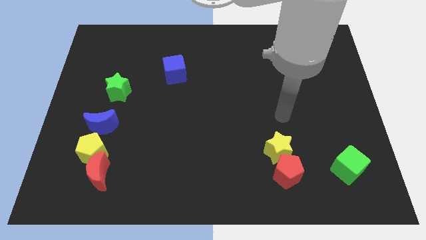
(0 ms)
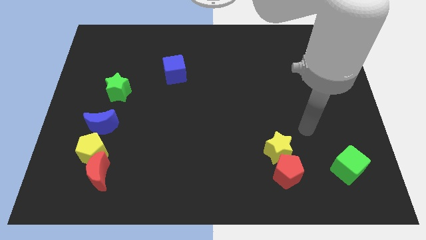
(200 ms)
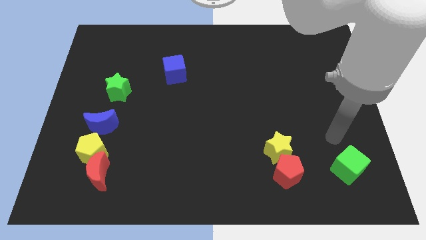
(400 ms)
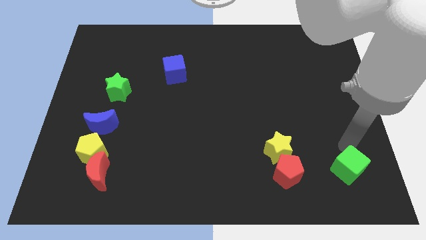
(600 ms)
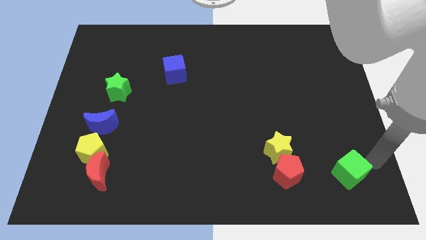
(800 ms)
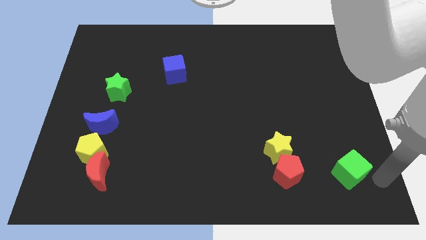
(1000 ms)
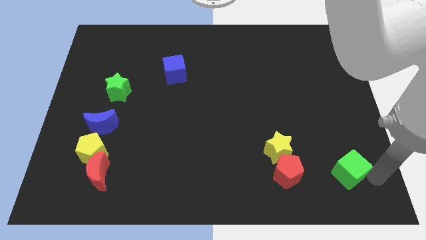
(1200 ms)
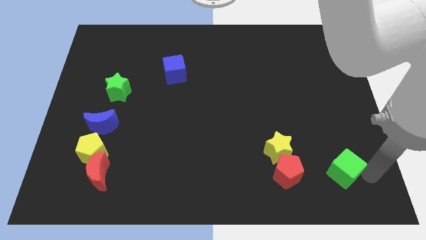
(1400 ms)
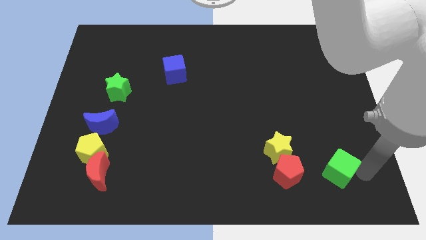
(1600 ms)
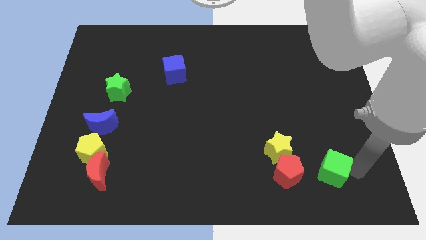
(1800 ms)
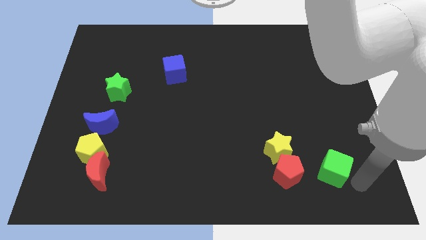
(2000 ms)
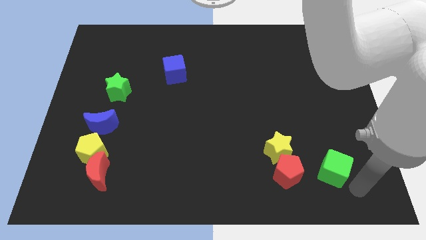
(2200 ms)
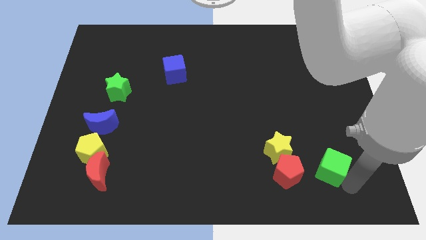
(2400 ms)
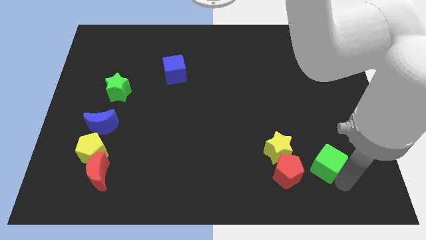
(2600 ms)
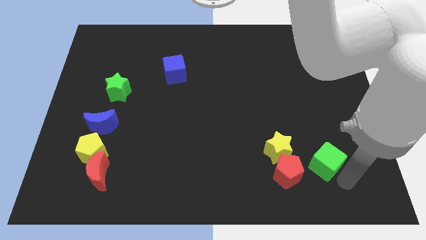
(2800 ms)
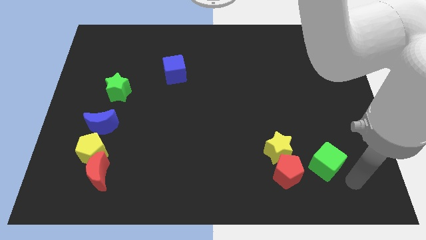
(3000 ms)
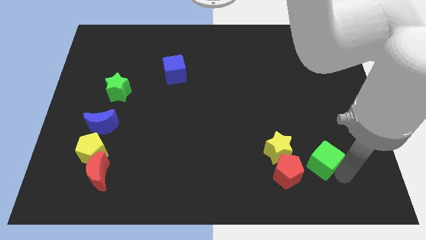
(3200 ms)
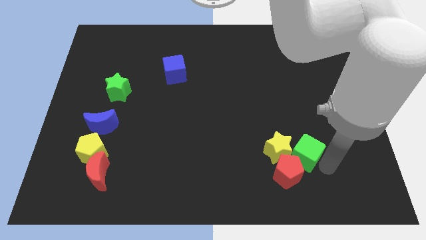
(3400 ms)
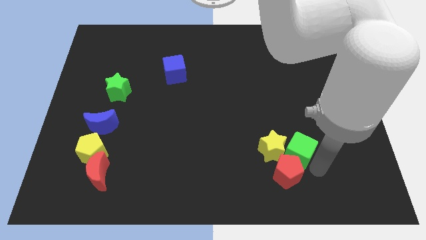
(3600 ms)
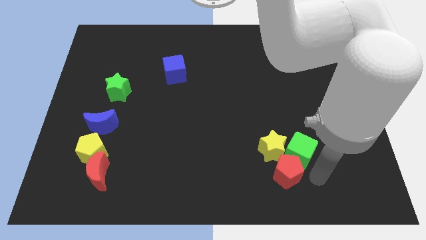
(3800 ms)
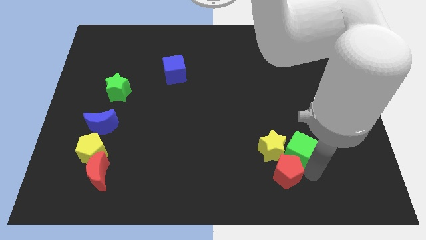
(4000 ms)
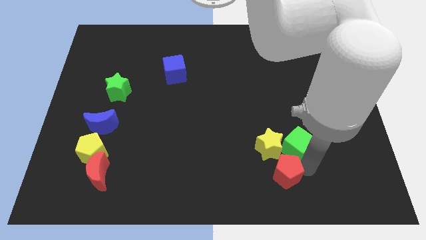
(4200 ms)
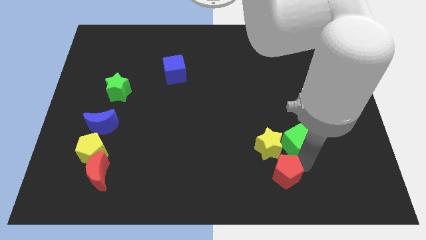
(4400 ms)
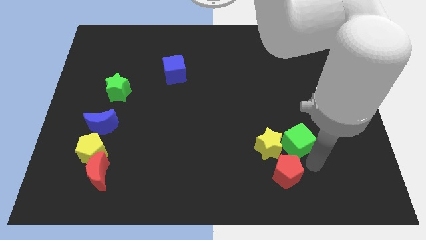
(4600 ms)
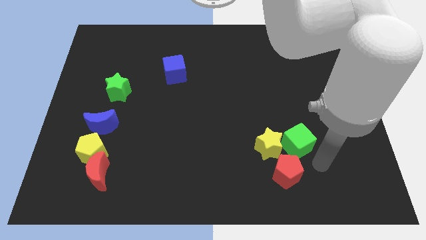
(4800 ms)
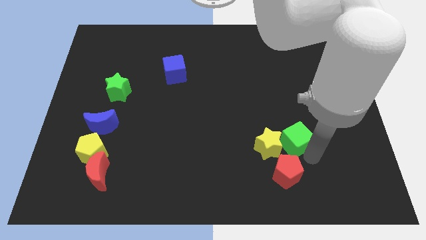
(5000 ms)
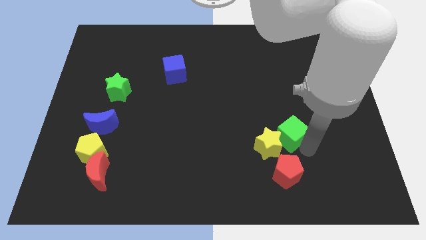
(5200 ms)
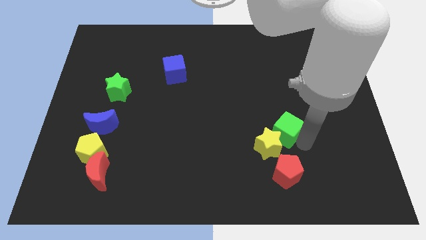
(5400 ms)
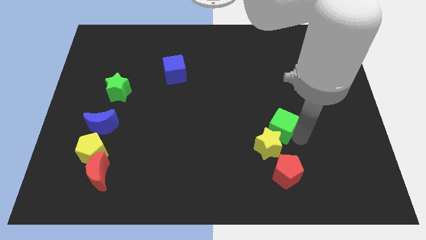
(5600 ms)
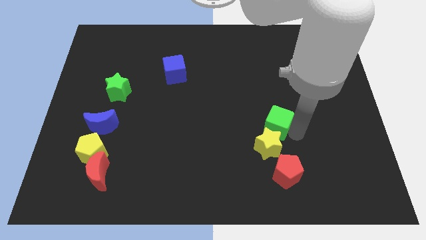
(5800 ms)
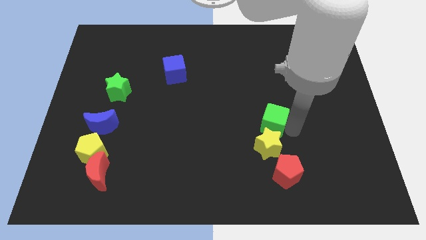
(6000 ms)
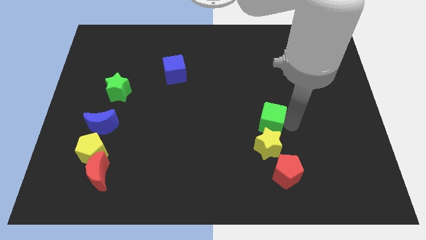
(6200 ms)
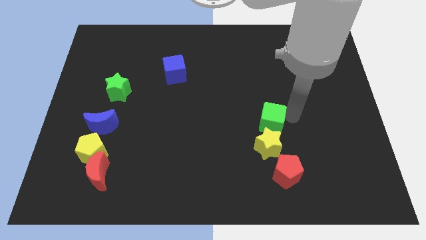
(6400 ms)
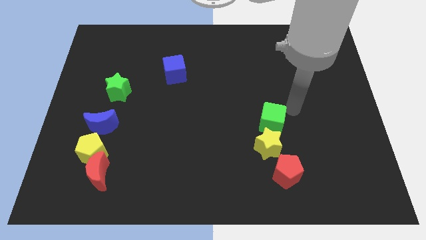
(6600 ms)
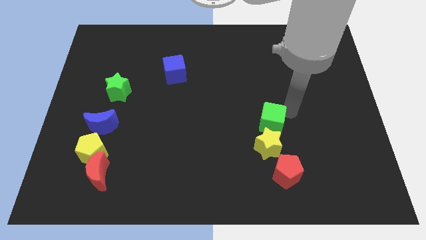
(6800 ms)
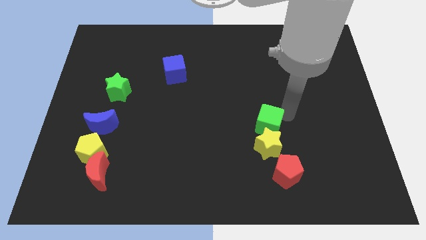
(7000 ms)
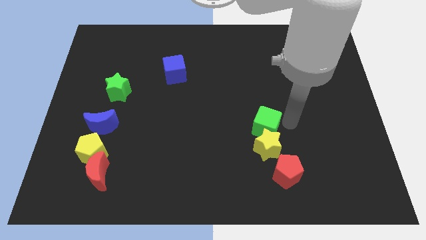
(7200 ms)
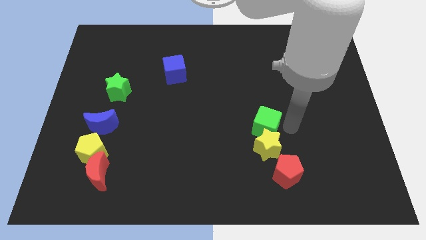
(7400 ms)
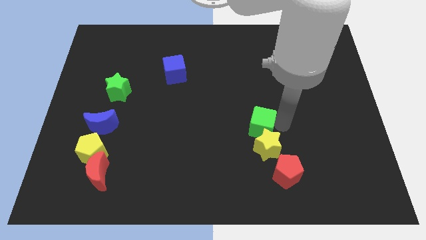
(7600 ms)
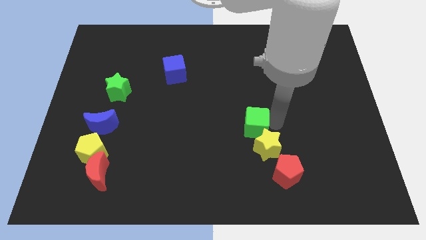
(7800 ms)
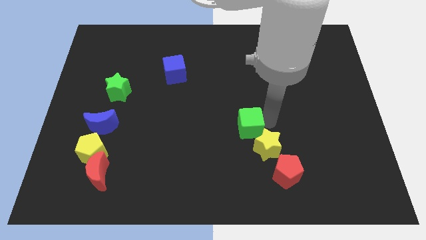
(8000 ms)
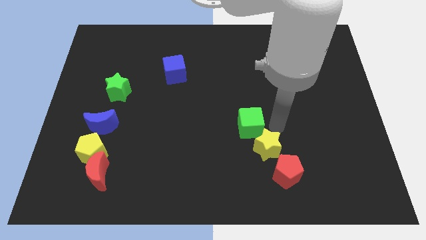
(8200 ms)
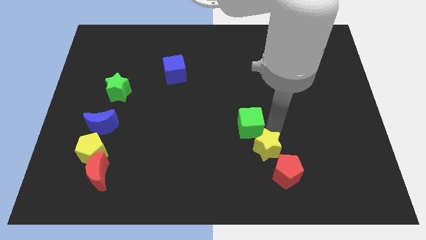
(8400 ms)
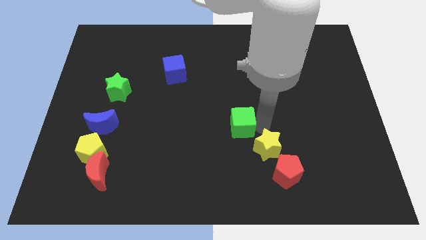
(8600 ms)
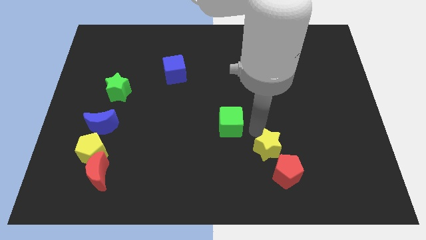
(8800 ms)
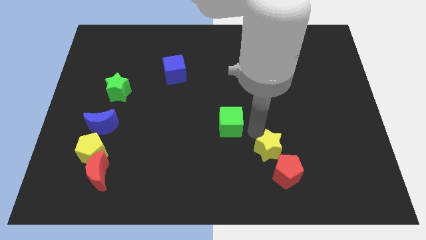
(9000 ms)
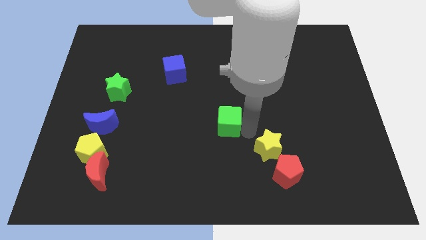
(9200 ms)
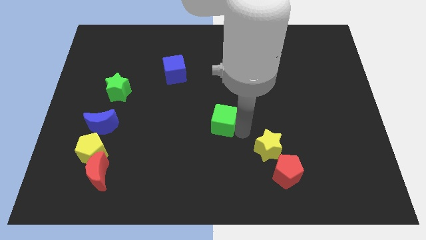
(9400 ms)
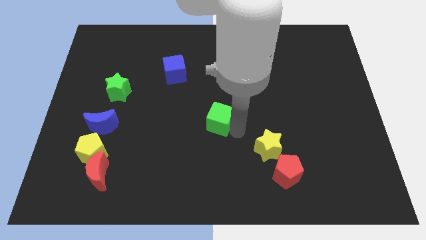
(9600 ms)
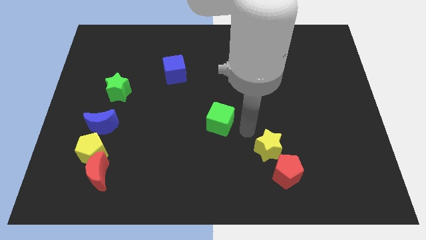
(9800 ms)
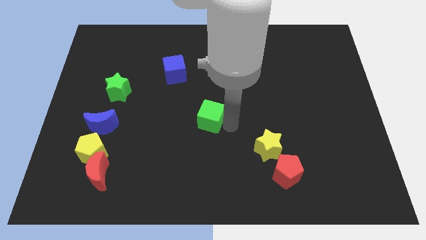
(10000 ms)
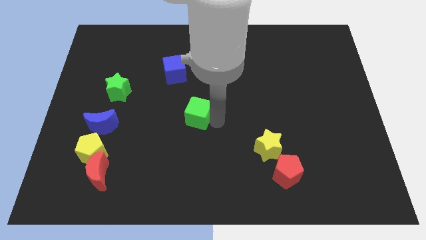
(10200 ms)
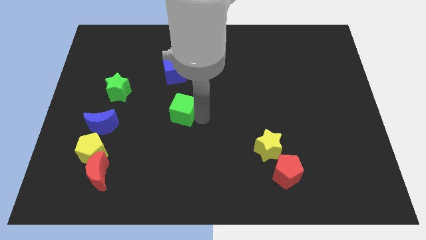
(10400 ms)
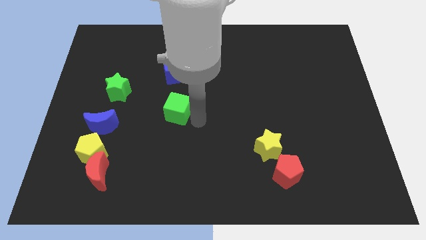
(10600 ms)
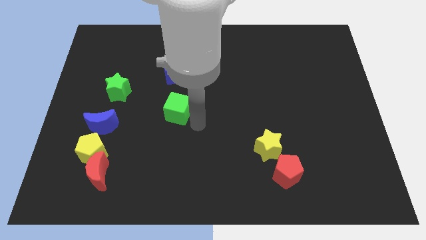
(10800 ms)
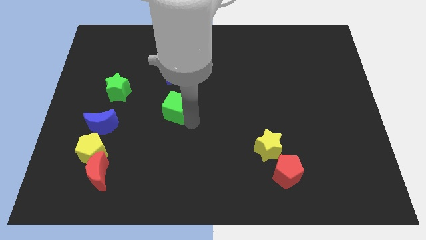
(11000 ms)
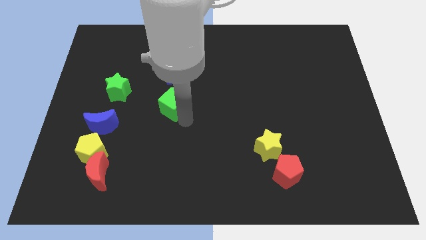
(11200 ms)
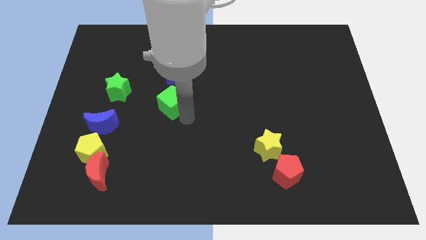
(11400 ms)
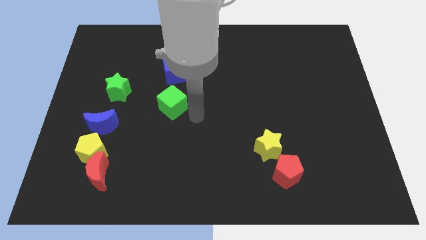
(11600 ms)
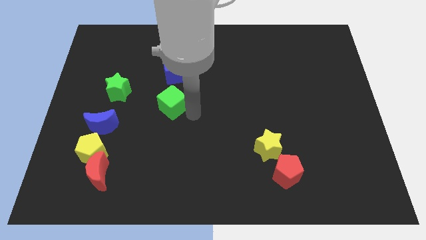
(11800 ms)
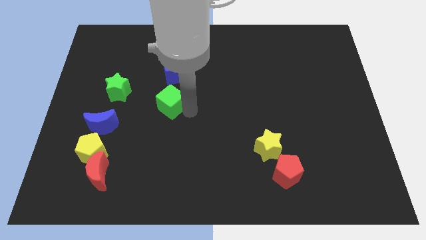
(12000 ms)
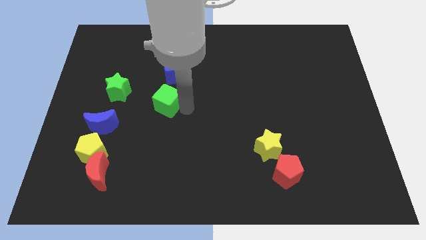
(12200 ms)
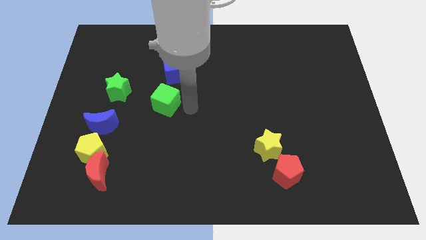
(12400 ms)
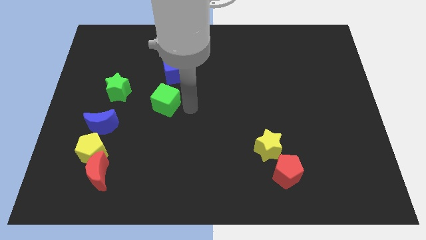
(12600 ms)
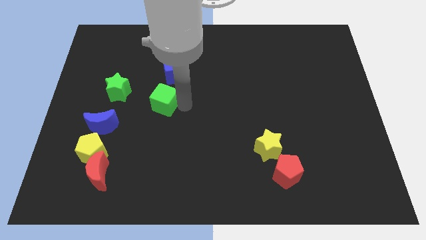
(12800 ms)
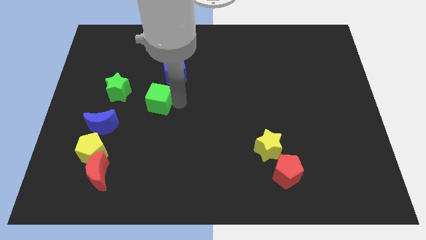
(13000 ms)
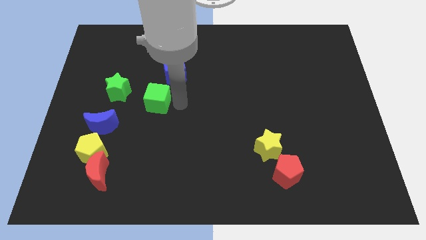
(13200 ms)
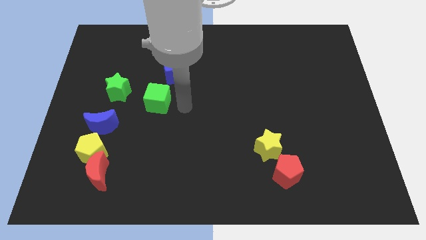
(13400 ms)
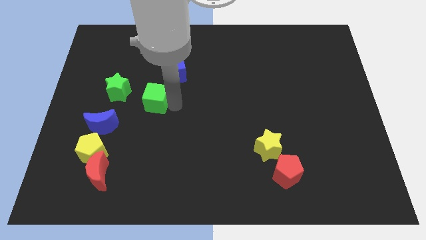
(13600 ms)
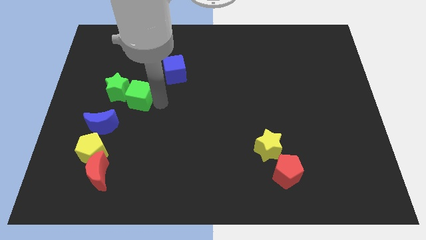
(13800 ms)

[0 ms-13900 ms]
slide the green cube close to the green star
